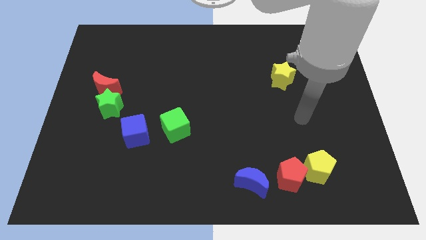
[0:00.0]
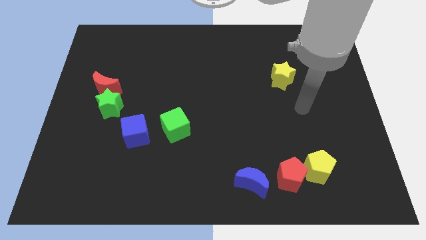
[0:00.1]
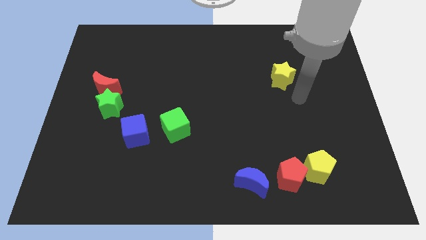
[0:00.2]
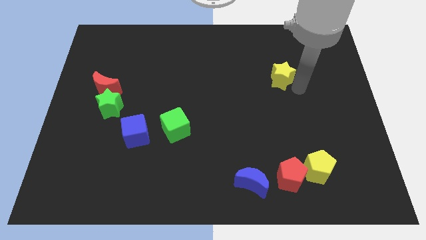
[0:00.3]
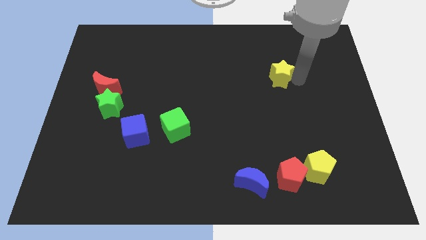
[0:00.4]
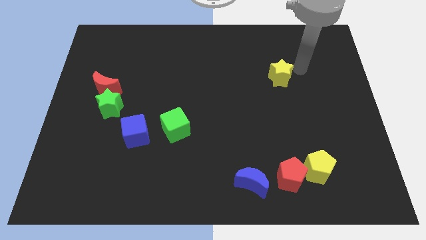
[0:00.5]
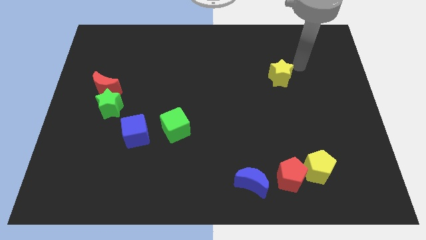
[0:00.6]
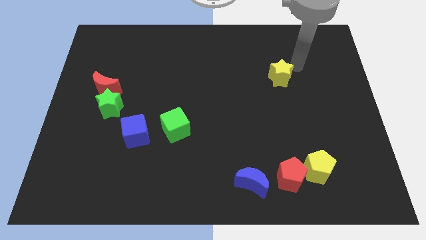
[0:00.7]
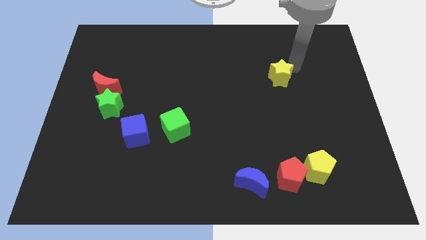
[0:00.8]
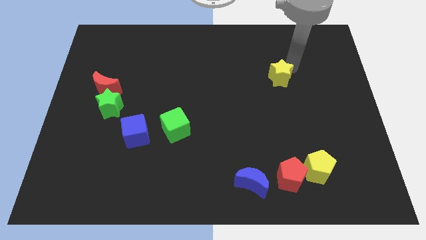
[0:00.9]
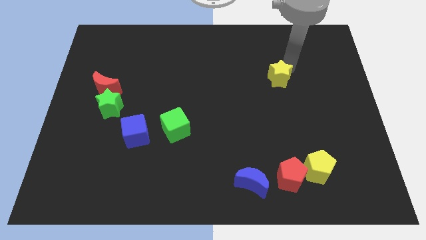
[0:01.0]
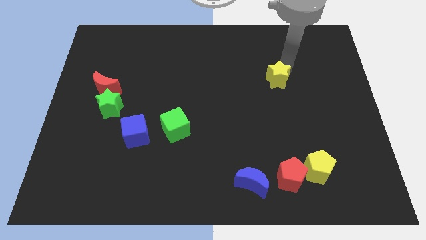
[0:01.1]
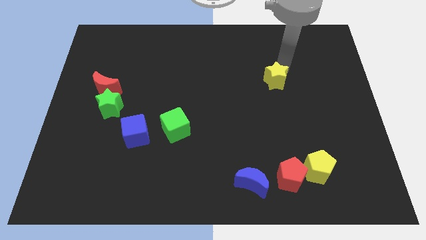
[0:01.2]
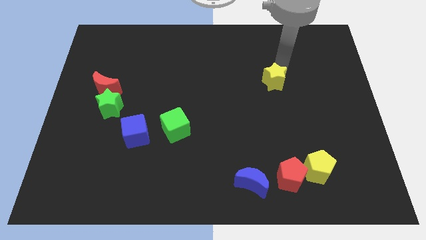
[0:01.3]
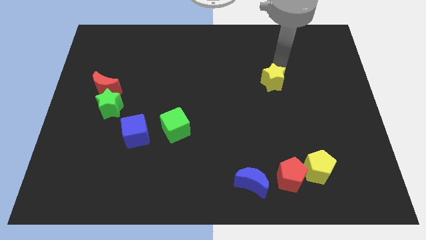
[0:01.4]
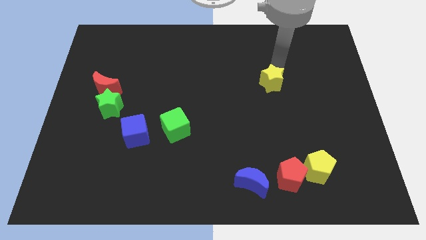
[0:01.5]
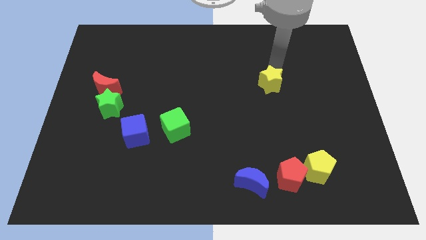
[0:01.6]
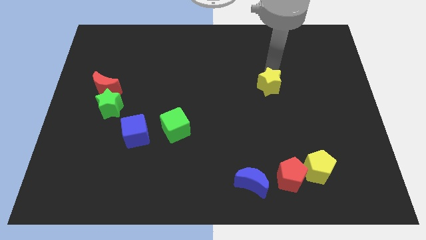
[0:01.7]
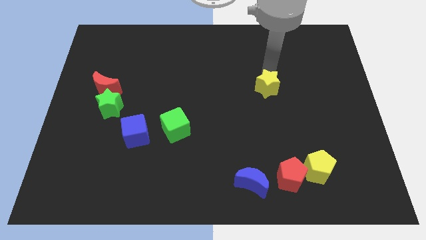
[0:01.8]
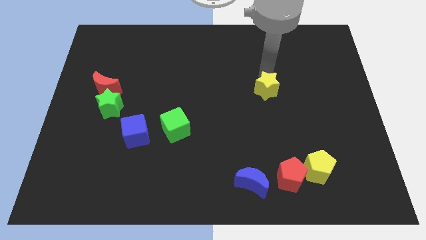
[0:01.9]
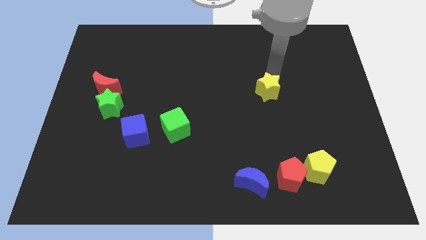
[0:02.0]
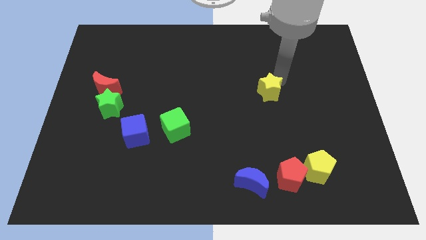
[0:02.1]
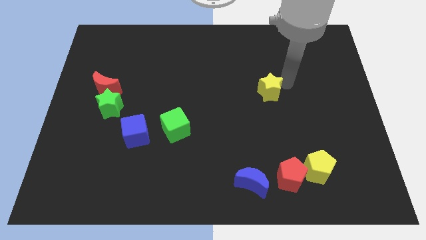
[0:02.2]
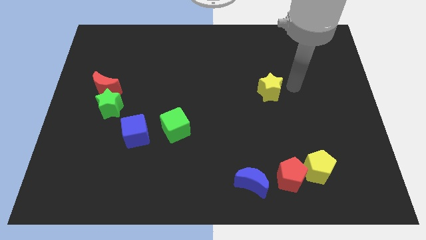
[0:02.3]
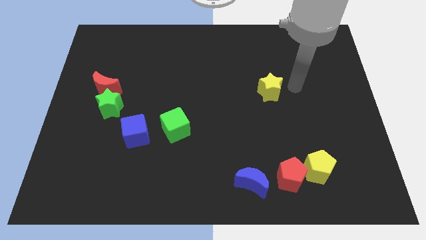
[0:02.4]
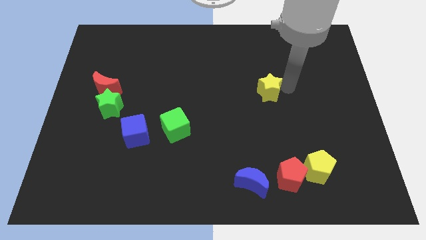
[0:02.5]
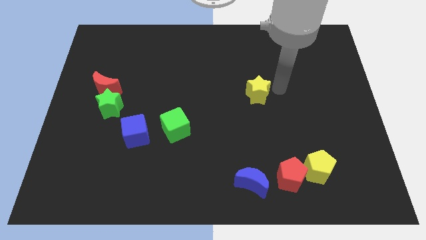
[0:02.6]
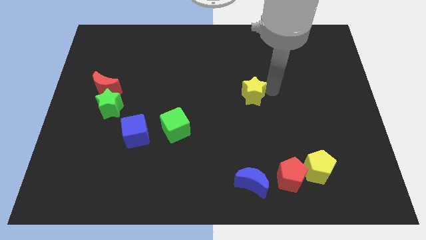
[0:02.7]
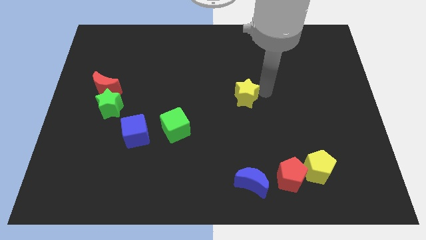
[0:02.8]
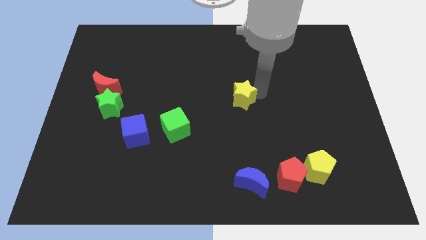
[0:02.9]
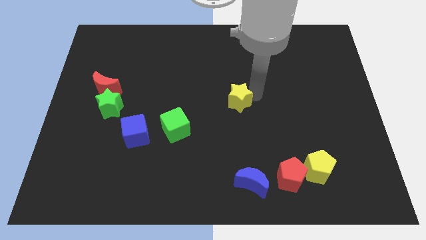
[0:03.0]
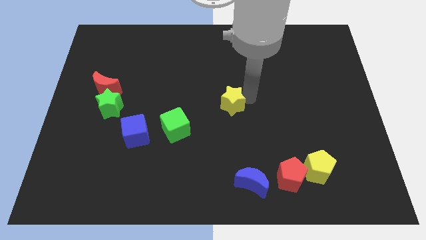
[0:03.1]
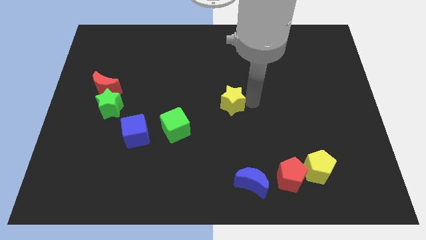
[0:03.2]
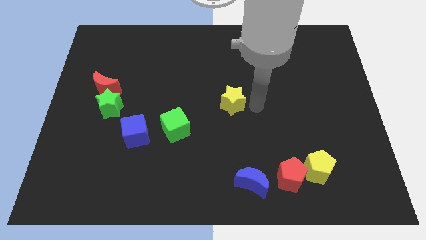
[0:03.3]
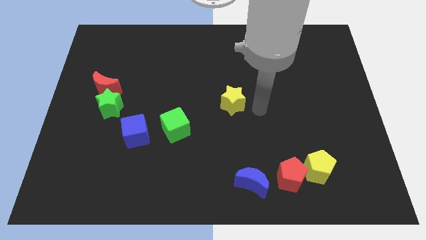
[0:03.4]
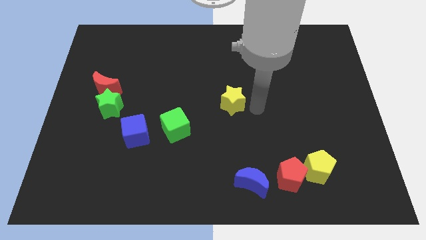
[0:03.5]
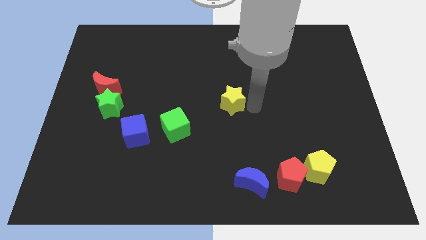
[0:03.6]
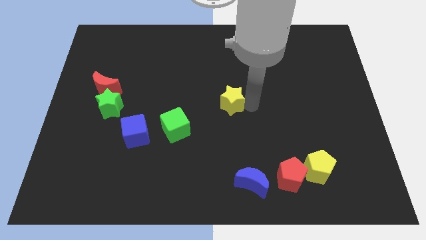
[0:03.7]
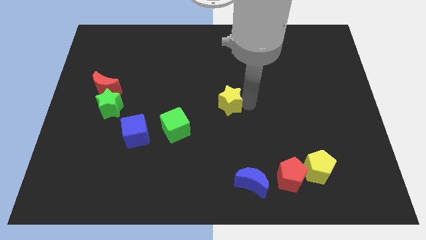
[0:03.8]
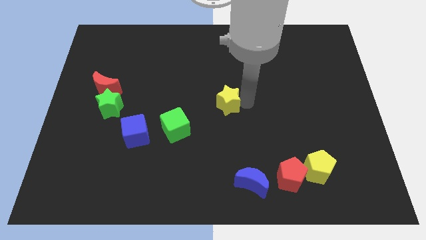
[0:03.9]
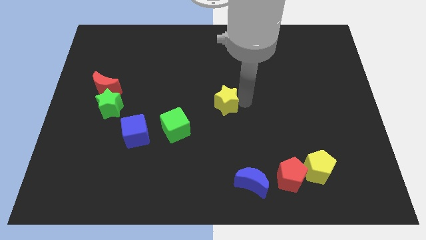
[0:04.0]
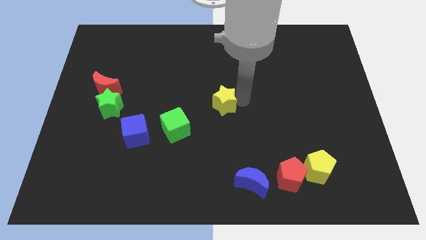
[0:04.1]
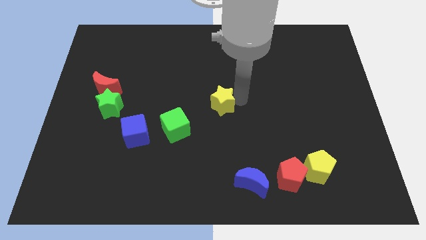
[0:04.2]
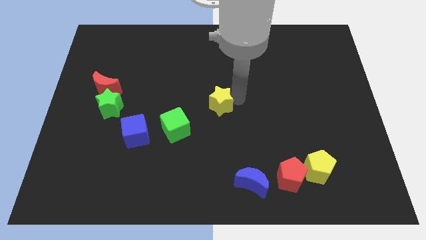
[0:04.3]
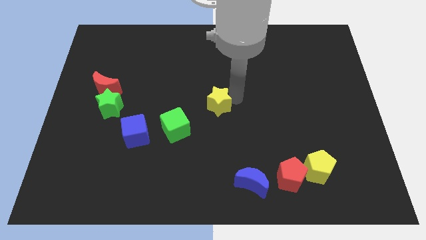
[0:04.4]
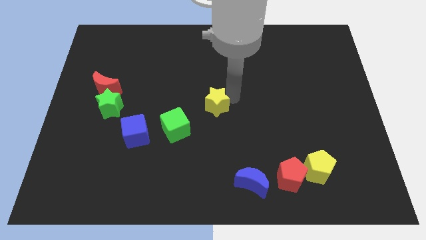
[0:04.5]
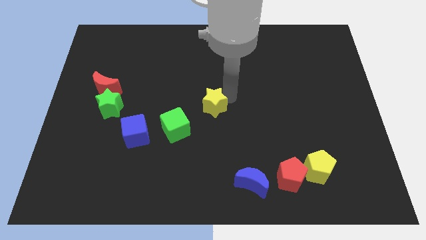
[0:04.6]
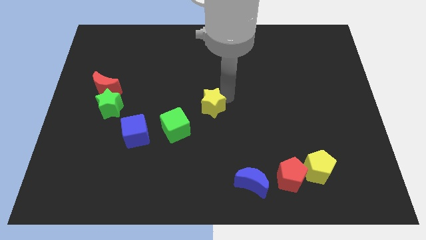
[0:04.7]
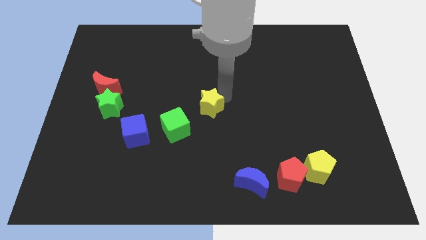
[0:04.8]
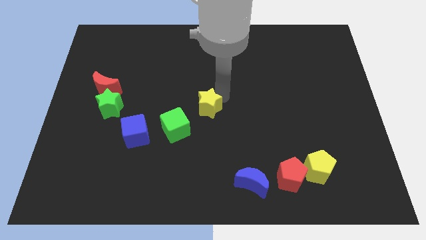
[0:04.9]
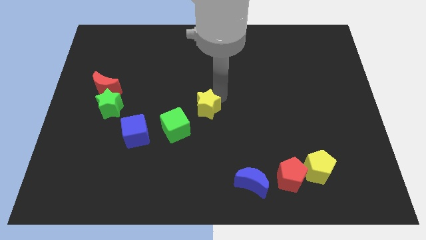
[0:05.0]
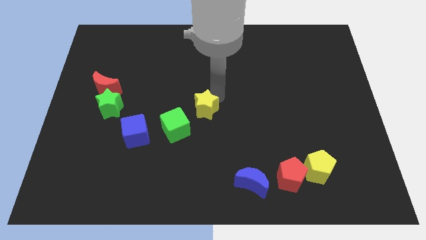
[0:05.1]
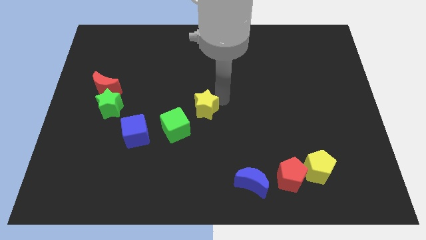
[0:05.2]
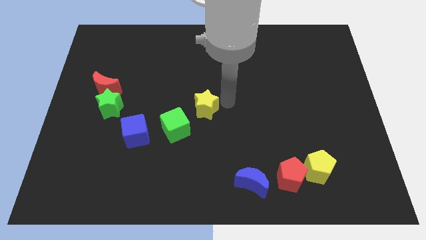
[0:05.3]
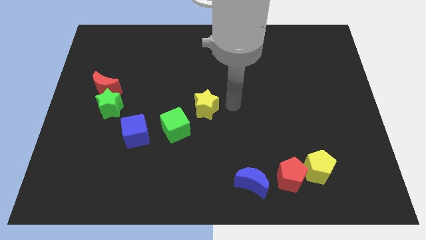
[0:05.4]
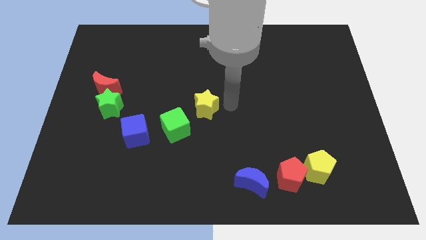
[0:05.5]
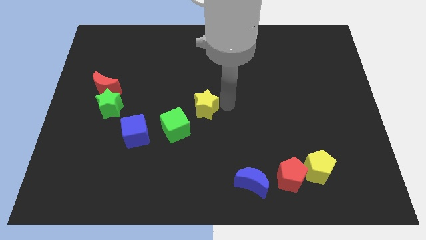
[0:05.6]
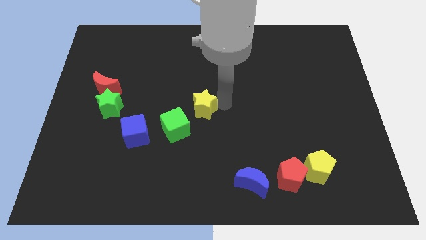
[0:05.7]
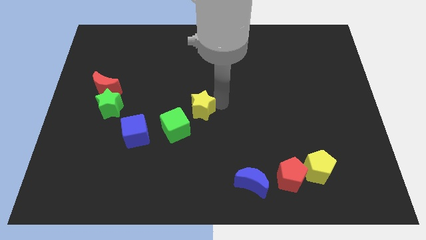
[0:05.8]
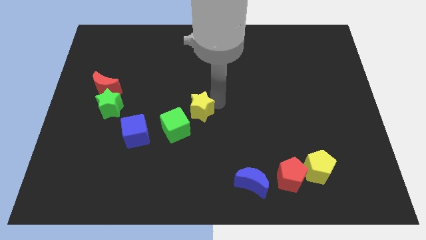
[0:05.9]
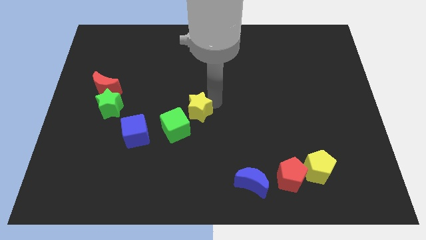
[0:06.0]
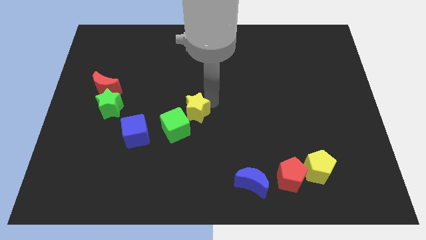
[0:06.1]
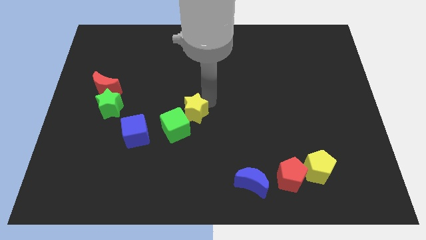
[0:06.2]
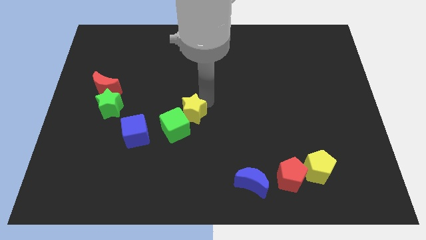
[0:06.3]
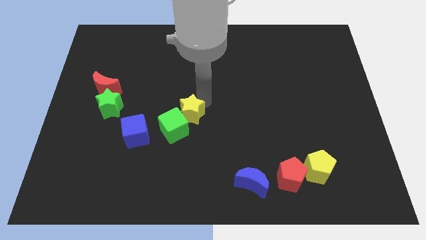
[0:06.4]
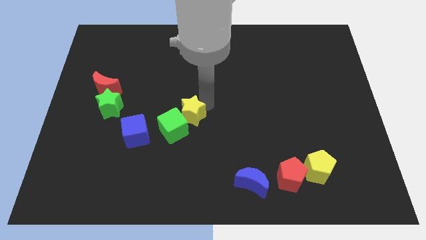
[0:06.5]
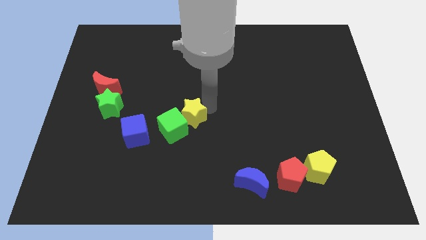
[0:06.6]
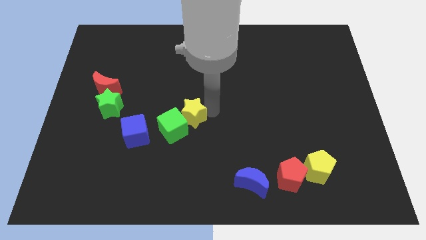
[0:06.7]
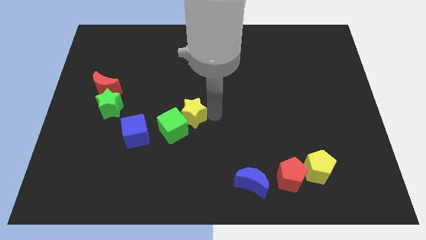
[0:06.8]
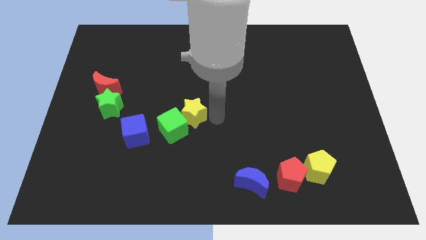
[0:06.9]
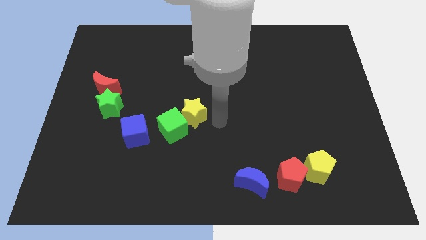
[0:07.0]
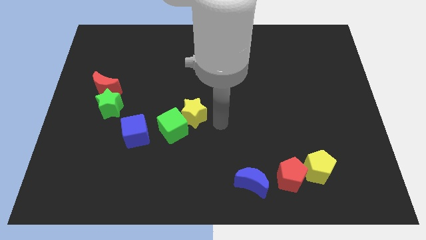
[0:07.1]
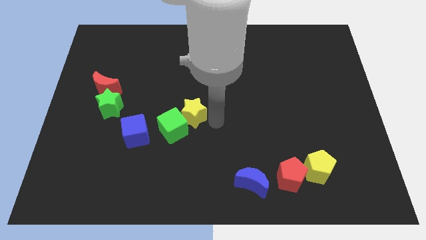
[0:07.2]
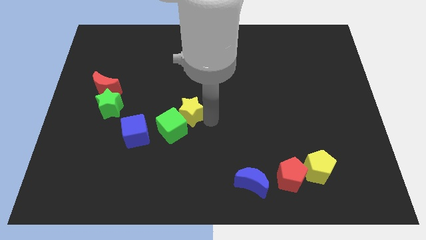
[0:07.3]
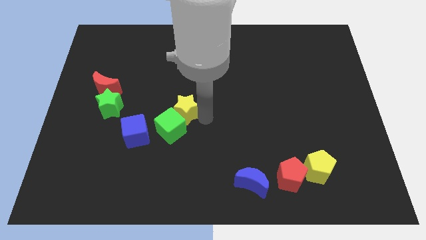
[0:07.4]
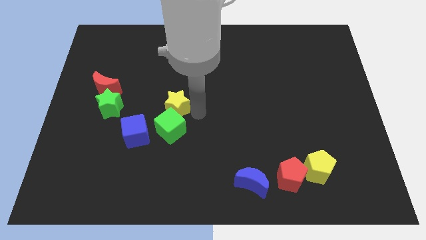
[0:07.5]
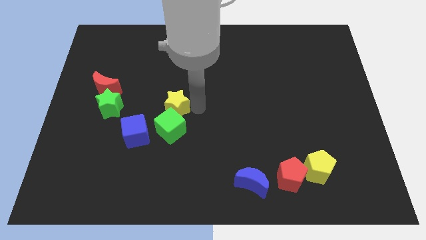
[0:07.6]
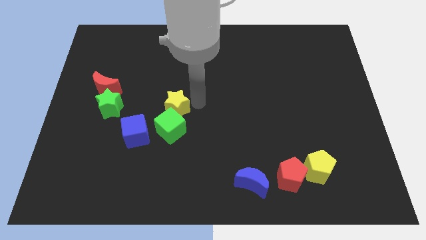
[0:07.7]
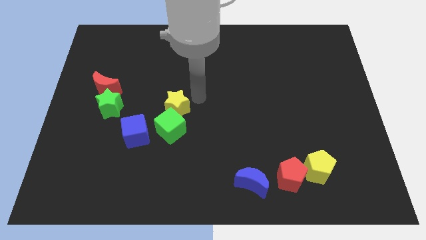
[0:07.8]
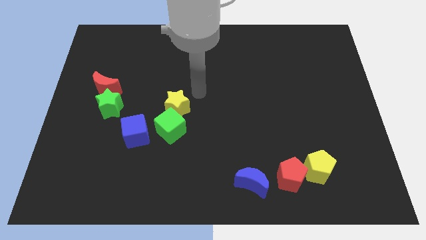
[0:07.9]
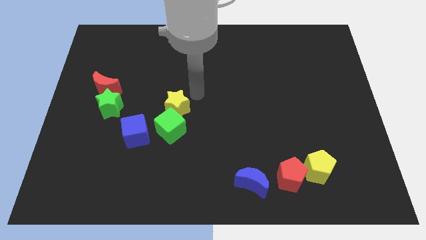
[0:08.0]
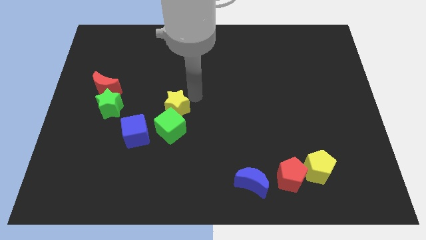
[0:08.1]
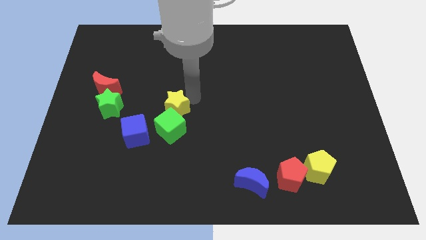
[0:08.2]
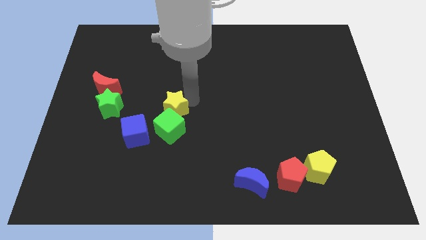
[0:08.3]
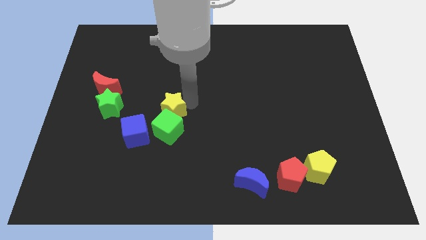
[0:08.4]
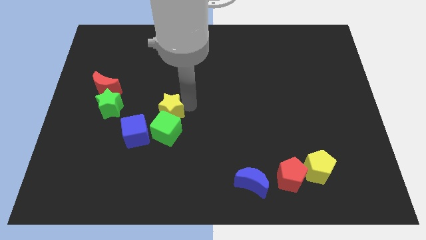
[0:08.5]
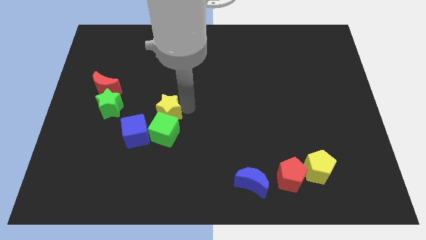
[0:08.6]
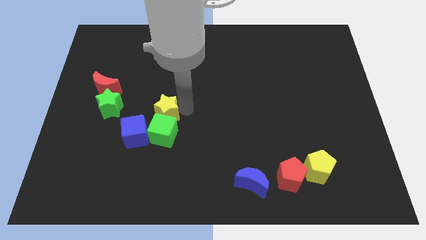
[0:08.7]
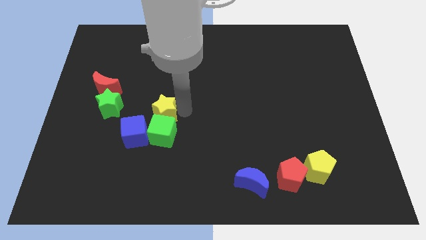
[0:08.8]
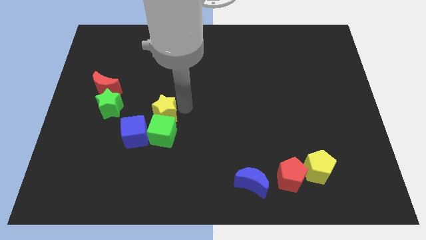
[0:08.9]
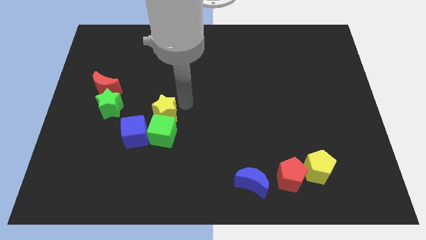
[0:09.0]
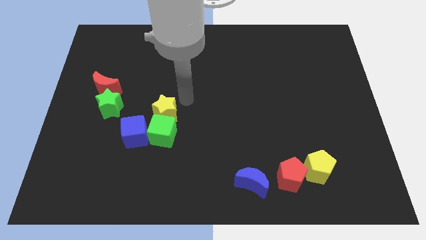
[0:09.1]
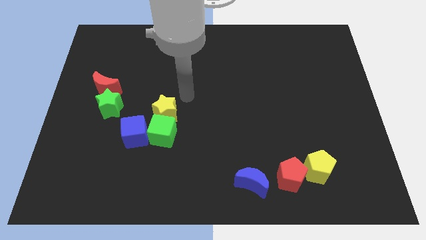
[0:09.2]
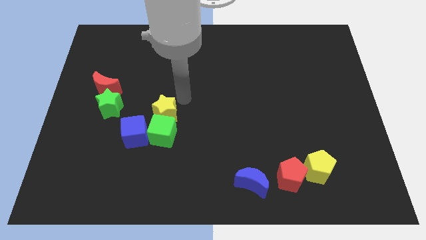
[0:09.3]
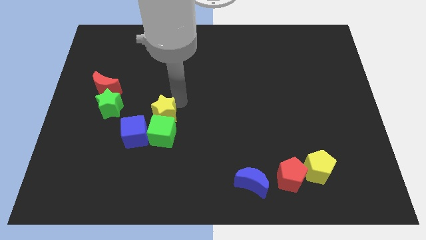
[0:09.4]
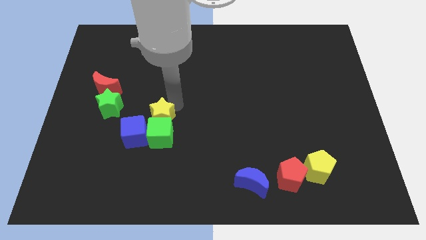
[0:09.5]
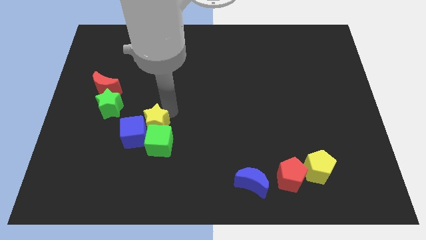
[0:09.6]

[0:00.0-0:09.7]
put the yellow star close to the blue cube
